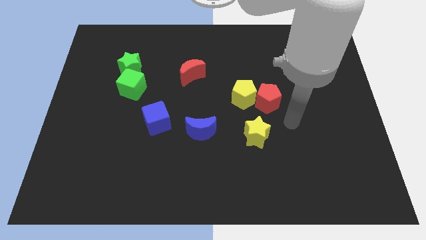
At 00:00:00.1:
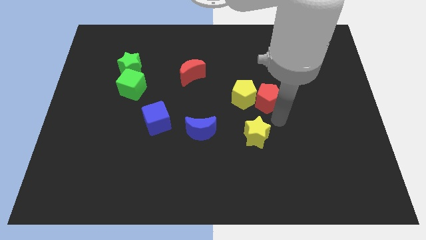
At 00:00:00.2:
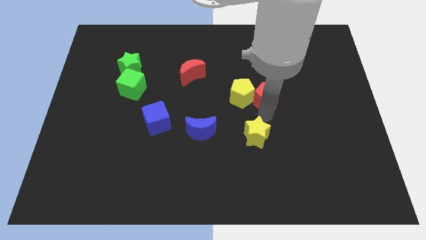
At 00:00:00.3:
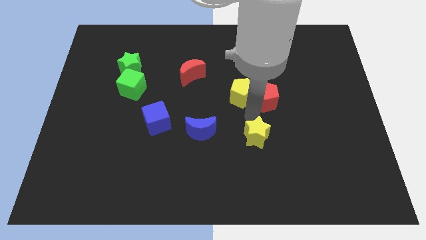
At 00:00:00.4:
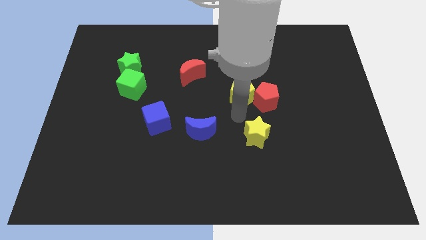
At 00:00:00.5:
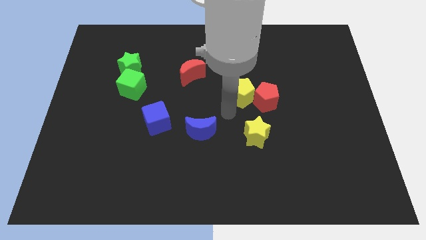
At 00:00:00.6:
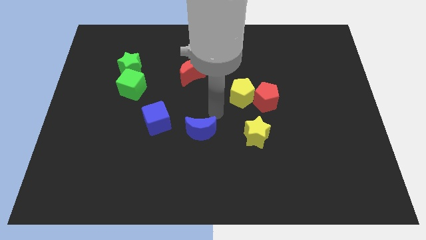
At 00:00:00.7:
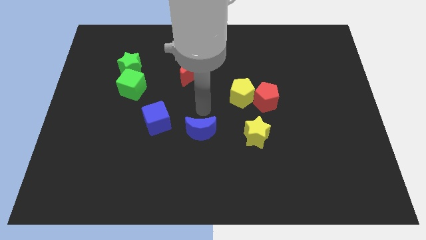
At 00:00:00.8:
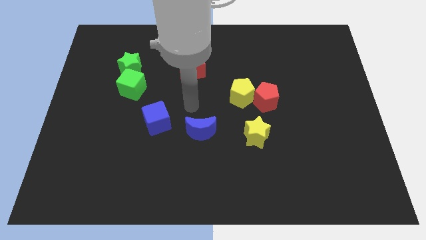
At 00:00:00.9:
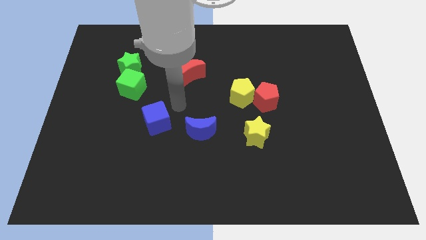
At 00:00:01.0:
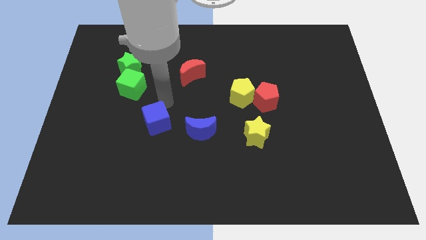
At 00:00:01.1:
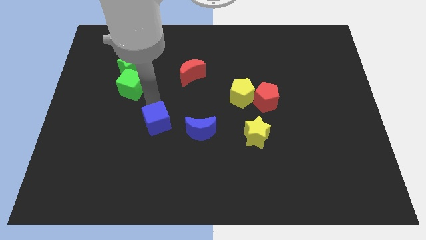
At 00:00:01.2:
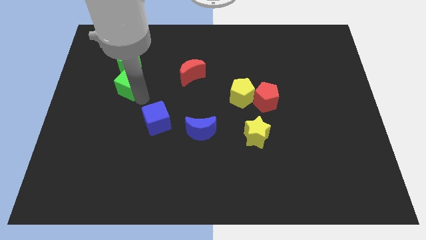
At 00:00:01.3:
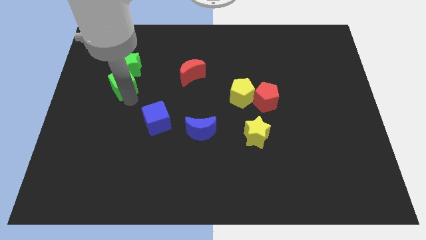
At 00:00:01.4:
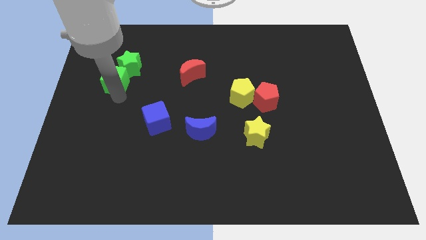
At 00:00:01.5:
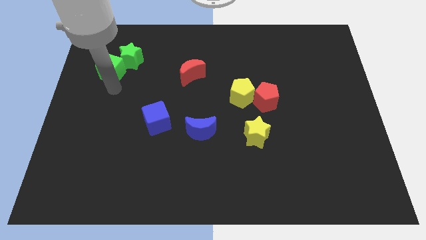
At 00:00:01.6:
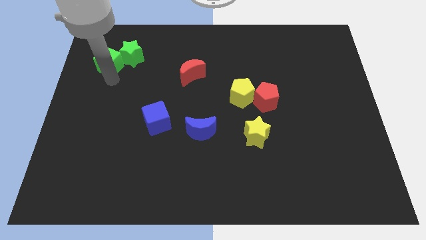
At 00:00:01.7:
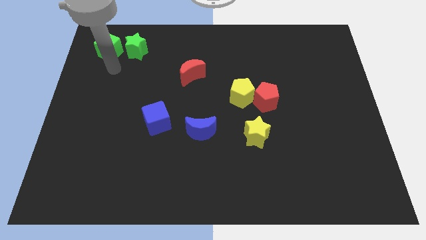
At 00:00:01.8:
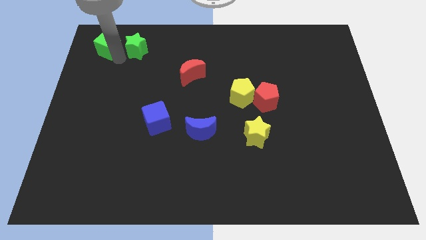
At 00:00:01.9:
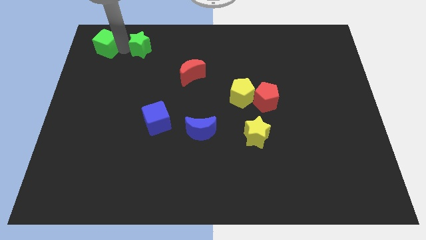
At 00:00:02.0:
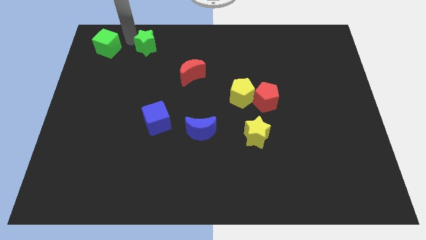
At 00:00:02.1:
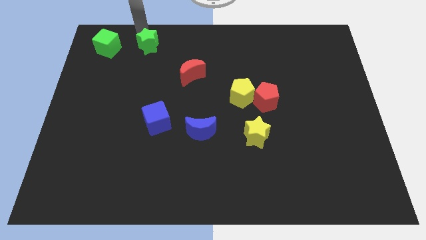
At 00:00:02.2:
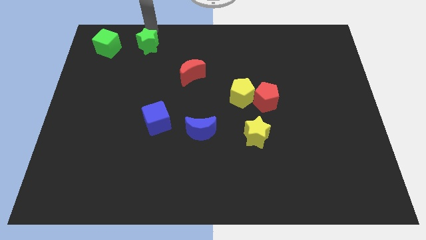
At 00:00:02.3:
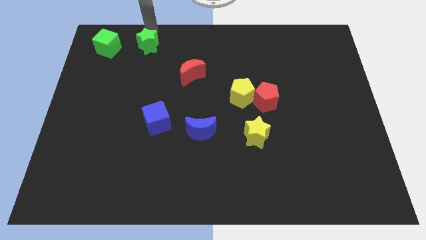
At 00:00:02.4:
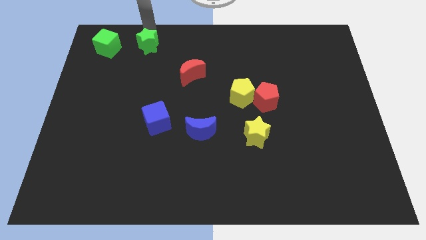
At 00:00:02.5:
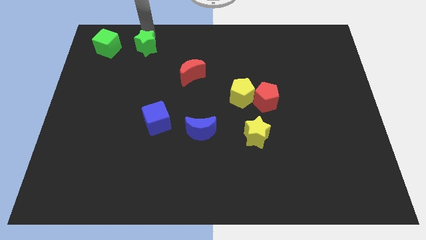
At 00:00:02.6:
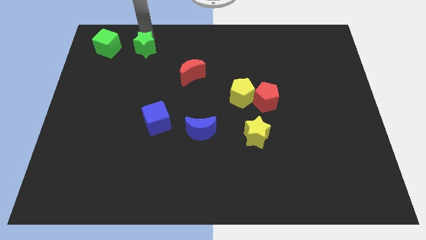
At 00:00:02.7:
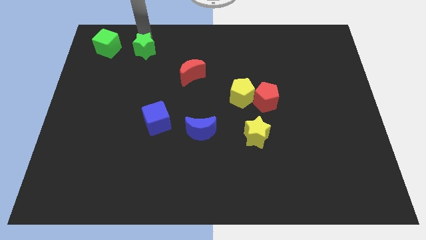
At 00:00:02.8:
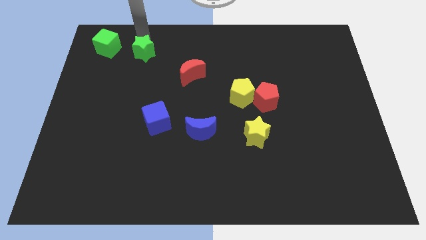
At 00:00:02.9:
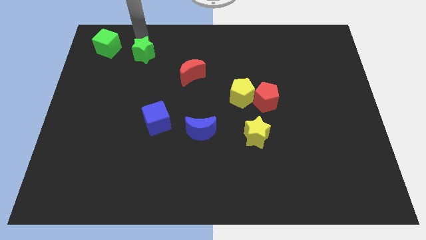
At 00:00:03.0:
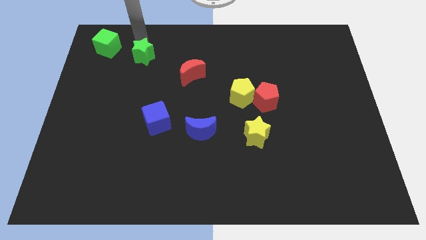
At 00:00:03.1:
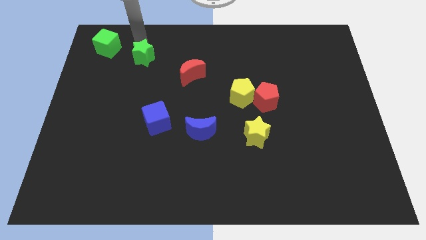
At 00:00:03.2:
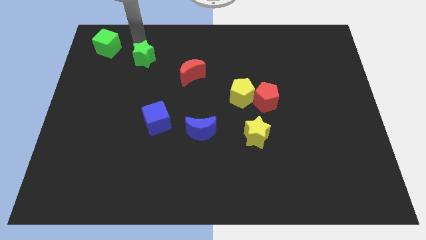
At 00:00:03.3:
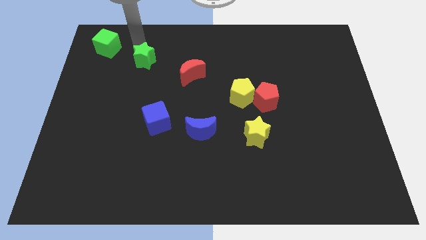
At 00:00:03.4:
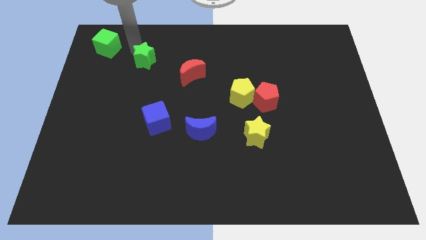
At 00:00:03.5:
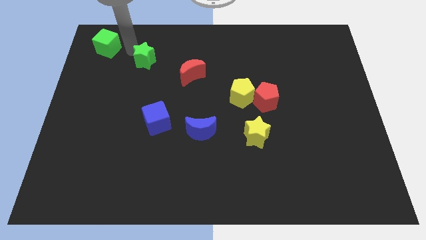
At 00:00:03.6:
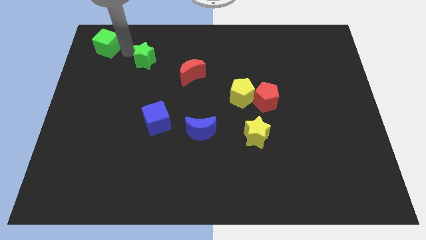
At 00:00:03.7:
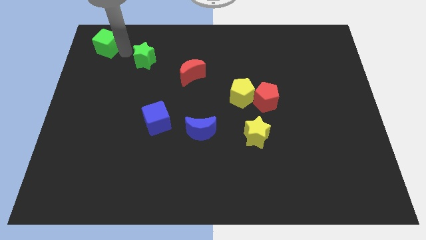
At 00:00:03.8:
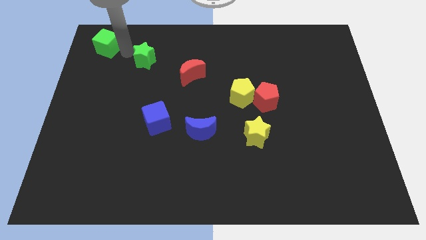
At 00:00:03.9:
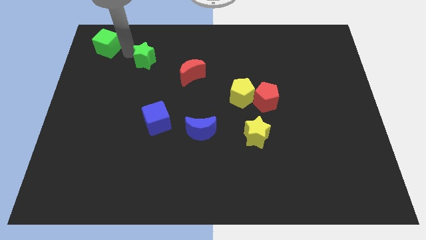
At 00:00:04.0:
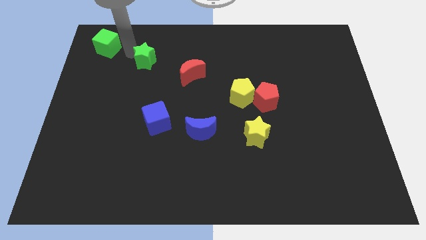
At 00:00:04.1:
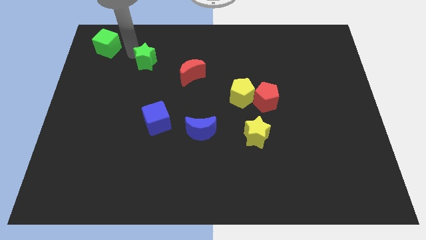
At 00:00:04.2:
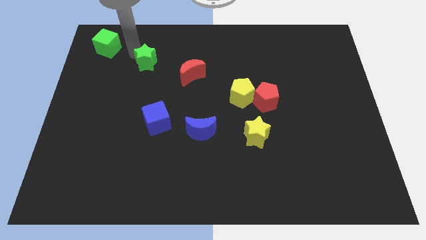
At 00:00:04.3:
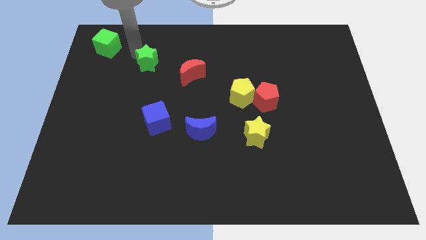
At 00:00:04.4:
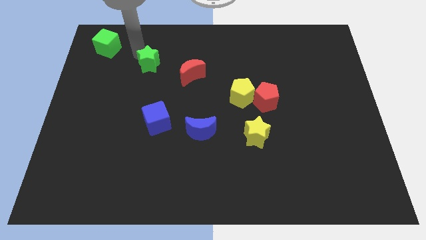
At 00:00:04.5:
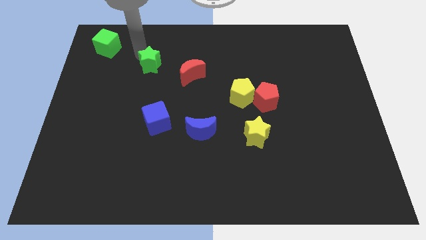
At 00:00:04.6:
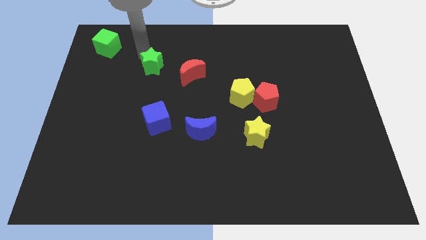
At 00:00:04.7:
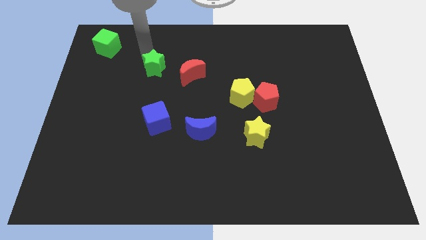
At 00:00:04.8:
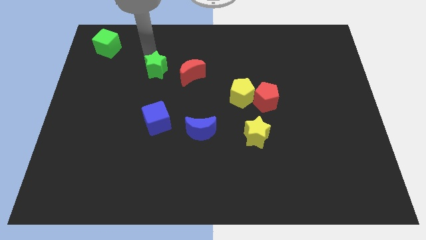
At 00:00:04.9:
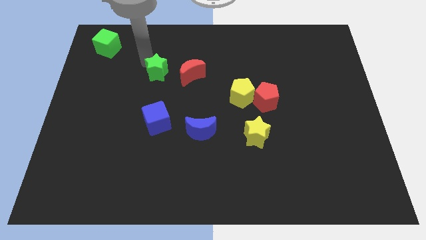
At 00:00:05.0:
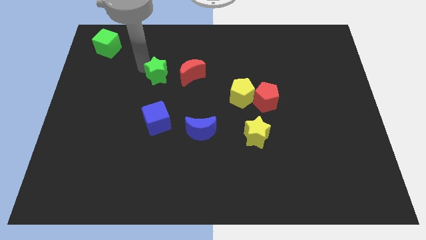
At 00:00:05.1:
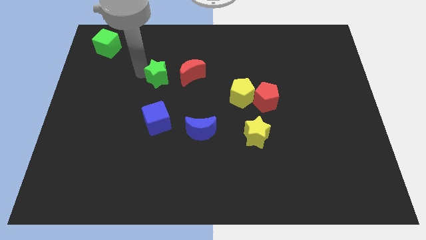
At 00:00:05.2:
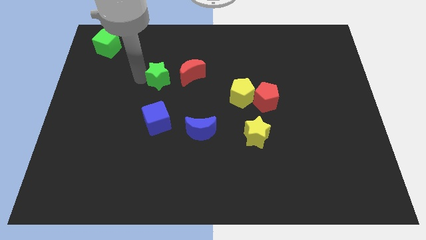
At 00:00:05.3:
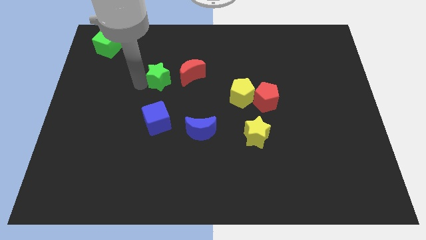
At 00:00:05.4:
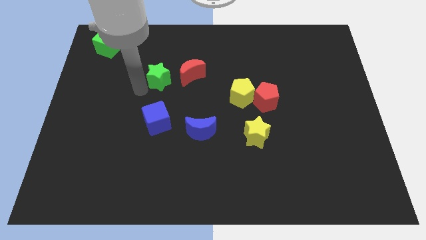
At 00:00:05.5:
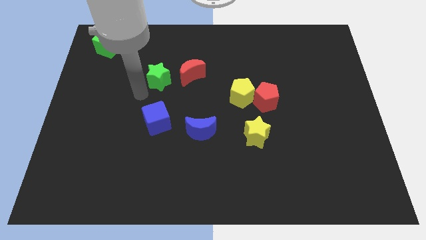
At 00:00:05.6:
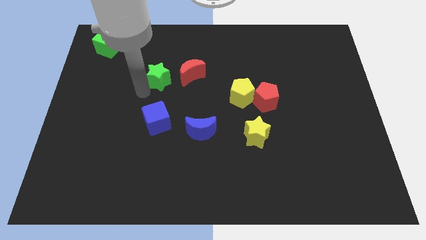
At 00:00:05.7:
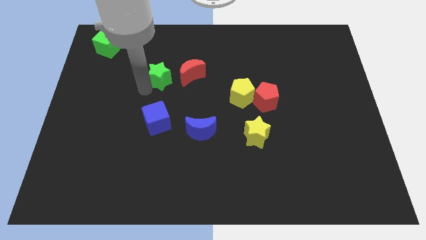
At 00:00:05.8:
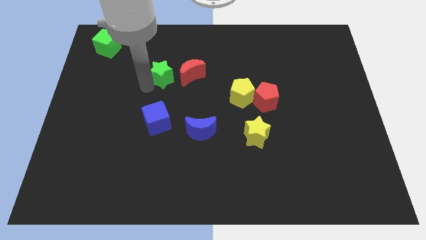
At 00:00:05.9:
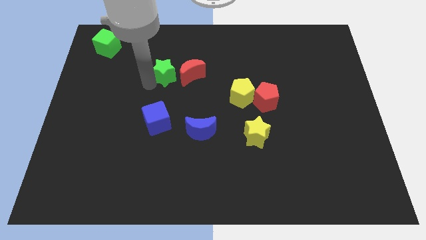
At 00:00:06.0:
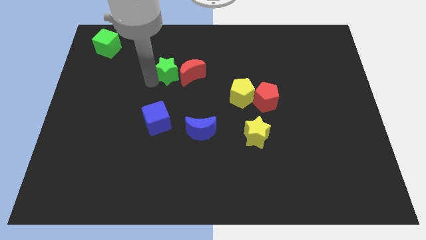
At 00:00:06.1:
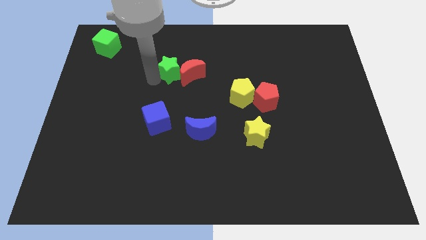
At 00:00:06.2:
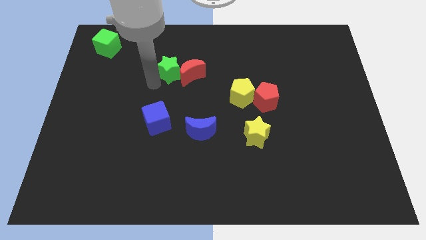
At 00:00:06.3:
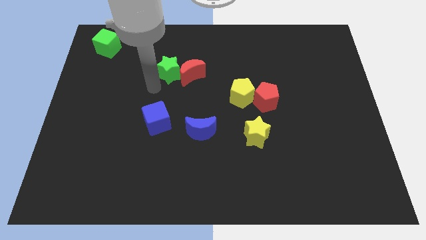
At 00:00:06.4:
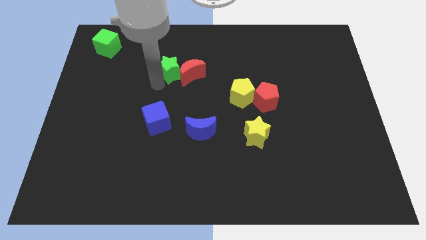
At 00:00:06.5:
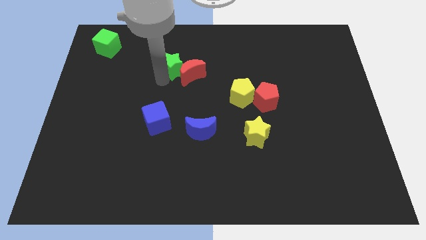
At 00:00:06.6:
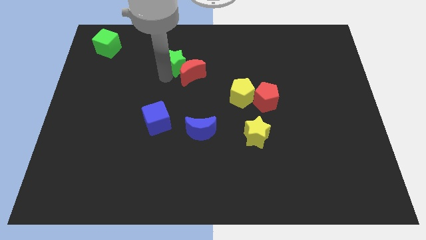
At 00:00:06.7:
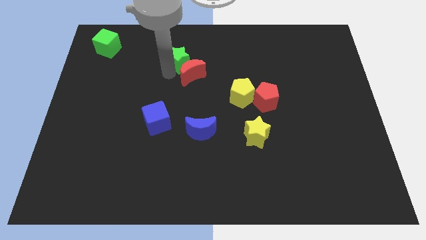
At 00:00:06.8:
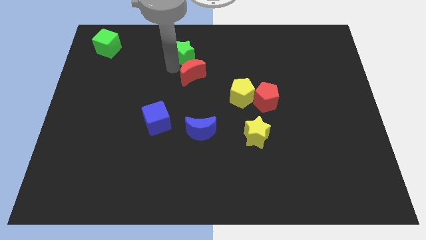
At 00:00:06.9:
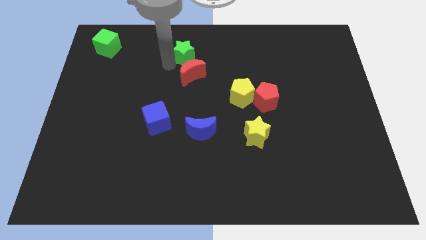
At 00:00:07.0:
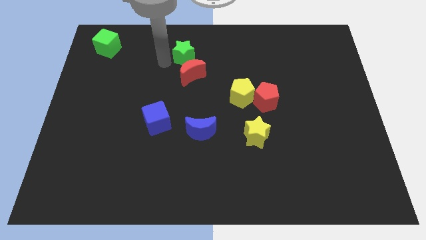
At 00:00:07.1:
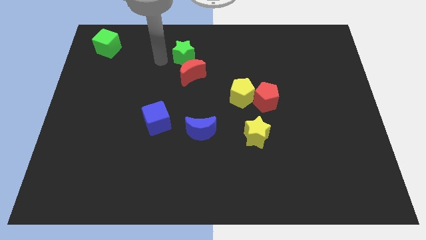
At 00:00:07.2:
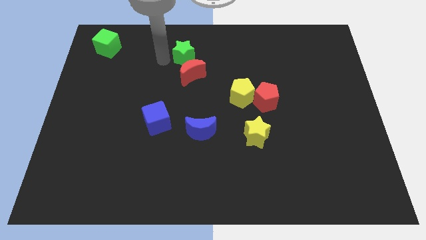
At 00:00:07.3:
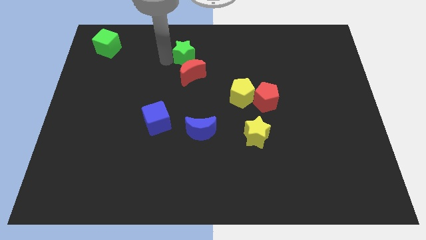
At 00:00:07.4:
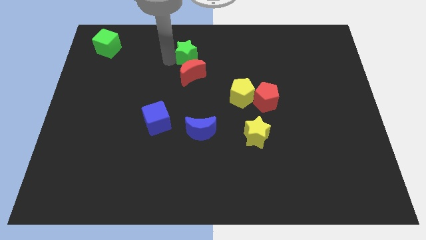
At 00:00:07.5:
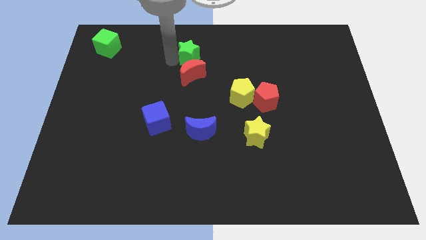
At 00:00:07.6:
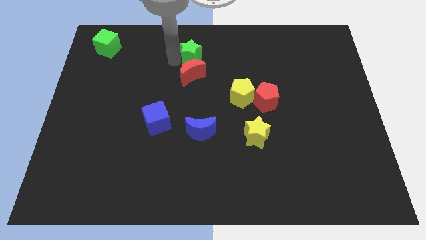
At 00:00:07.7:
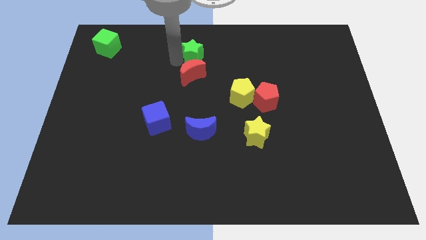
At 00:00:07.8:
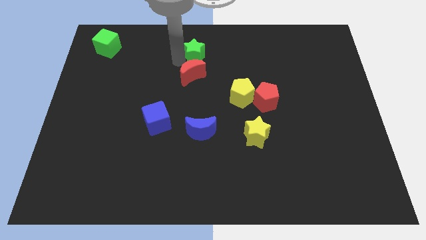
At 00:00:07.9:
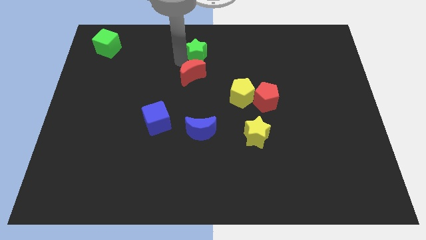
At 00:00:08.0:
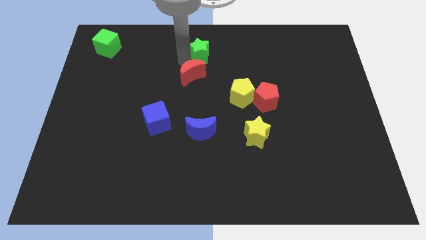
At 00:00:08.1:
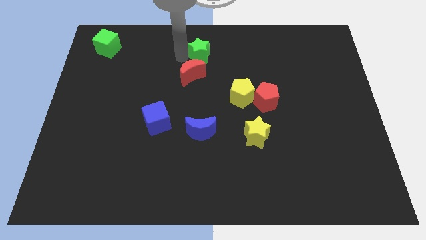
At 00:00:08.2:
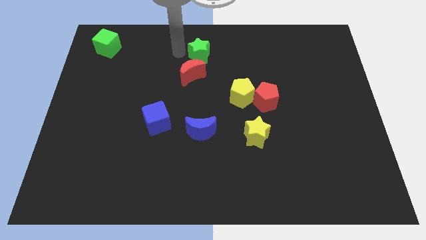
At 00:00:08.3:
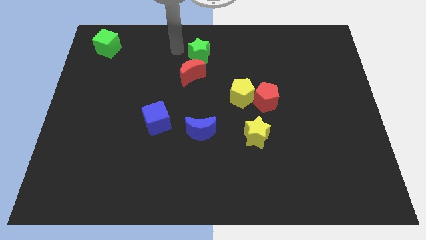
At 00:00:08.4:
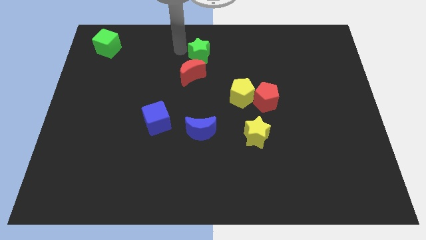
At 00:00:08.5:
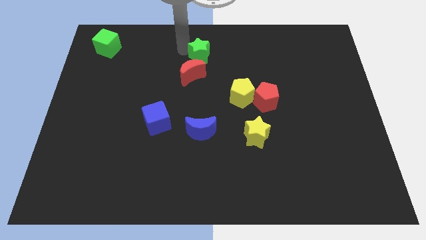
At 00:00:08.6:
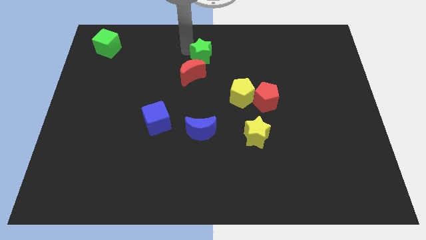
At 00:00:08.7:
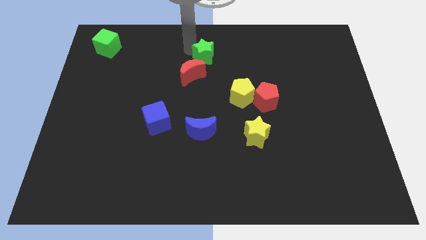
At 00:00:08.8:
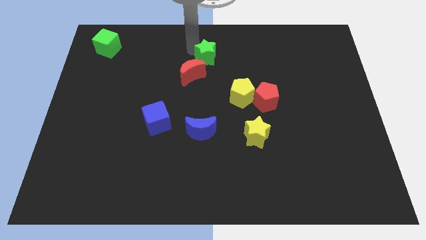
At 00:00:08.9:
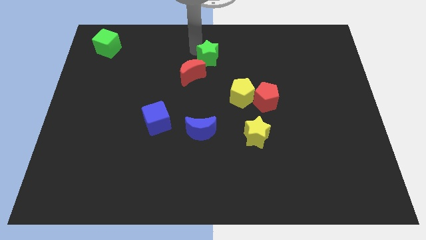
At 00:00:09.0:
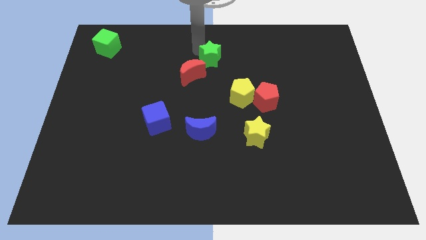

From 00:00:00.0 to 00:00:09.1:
slide the green star to the right
